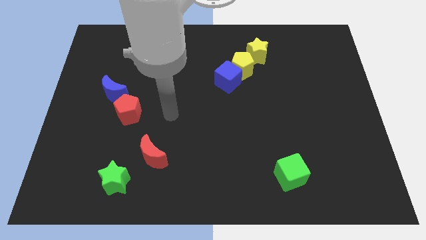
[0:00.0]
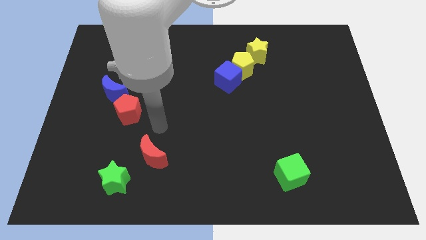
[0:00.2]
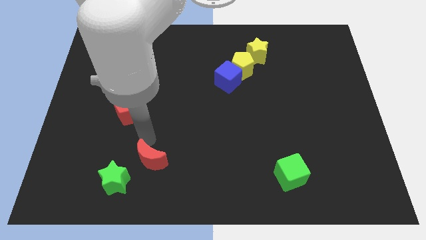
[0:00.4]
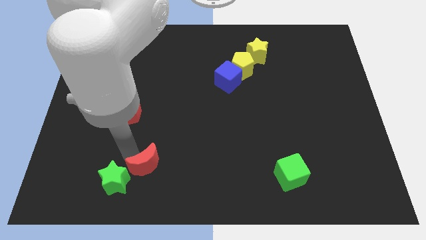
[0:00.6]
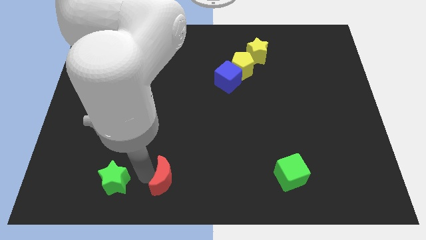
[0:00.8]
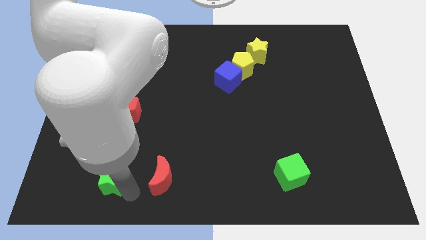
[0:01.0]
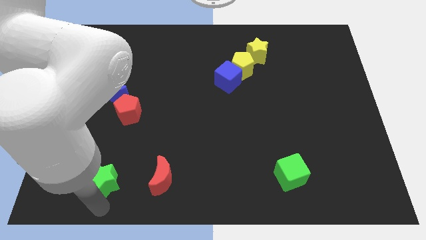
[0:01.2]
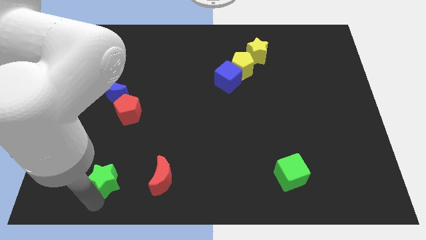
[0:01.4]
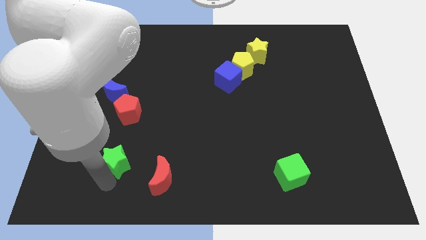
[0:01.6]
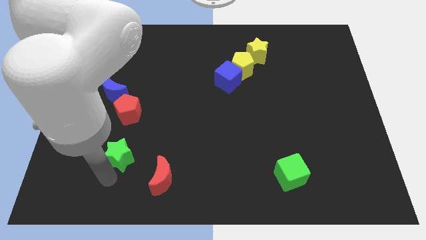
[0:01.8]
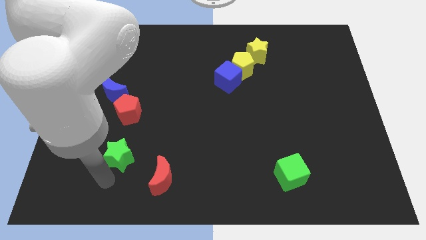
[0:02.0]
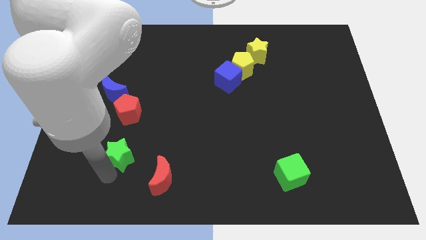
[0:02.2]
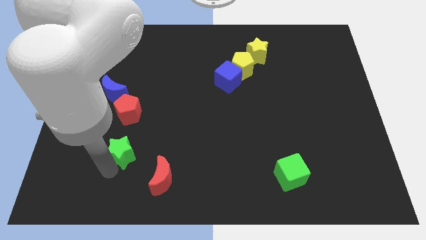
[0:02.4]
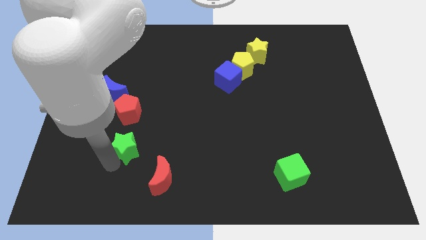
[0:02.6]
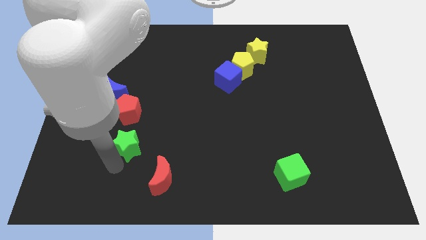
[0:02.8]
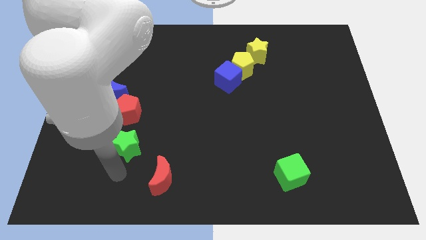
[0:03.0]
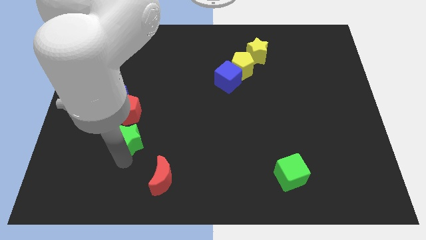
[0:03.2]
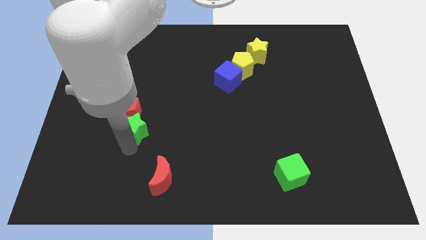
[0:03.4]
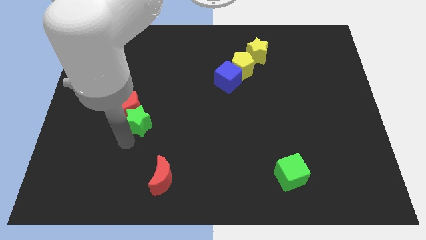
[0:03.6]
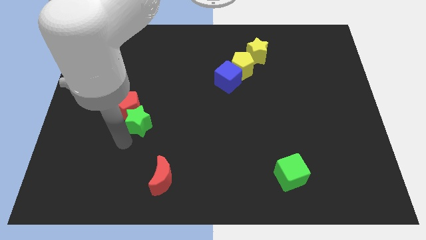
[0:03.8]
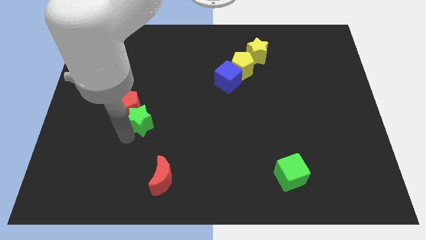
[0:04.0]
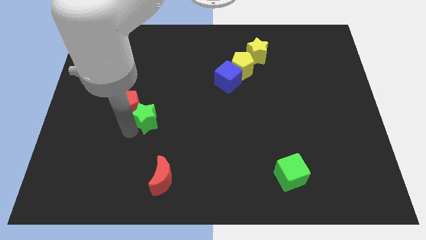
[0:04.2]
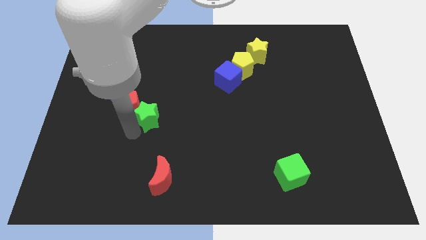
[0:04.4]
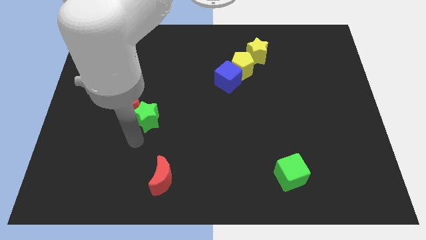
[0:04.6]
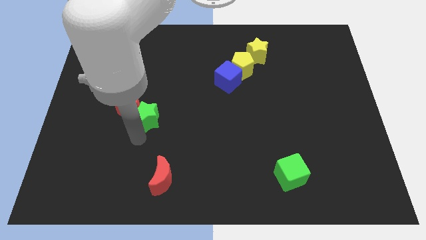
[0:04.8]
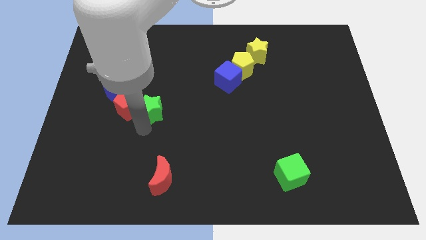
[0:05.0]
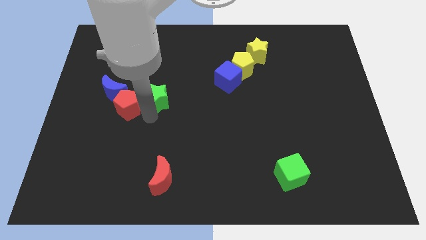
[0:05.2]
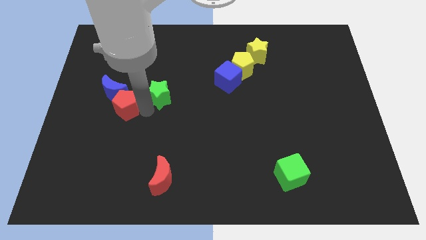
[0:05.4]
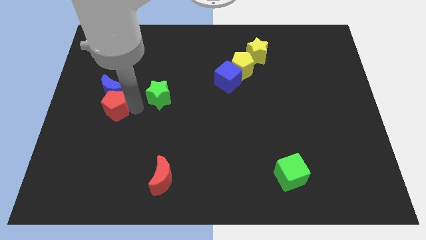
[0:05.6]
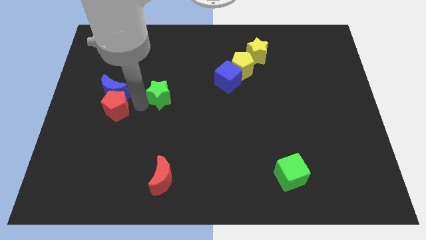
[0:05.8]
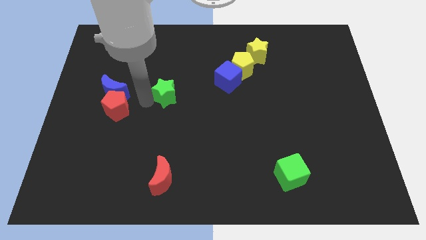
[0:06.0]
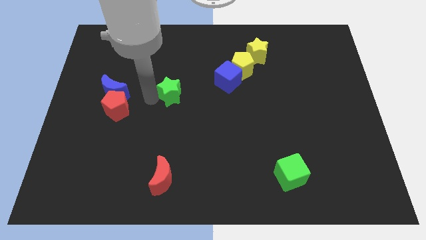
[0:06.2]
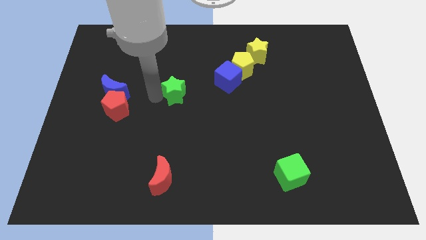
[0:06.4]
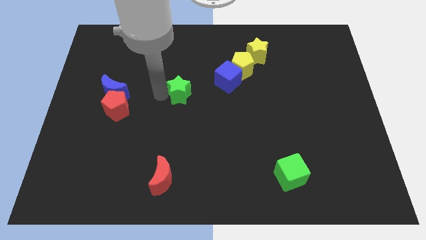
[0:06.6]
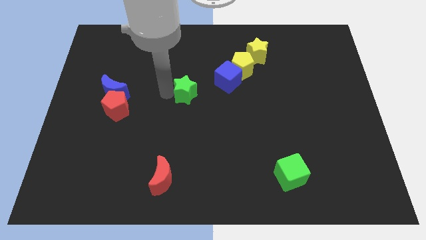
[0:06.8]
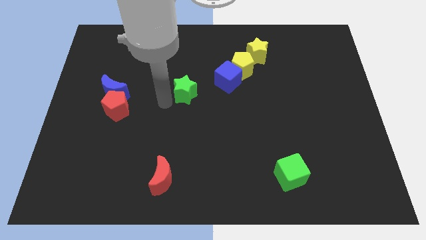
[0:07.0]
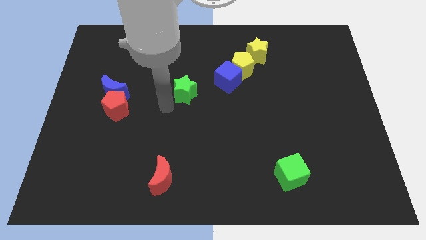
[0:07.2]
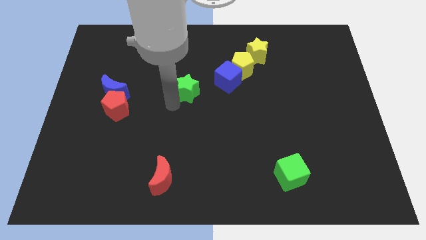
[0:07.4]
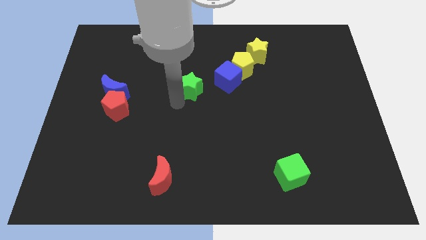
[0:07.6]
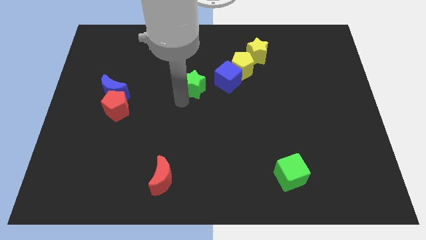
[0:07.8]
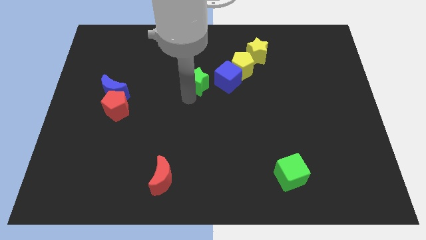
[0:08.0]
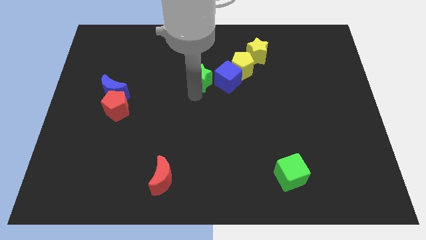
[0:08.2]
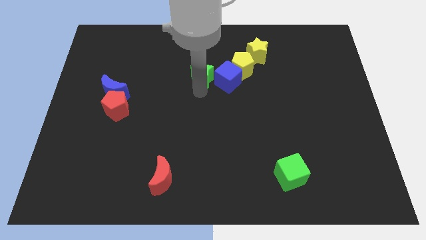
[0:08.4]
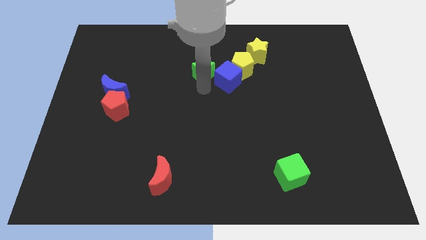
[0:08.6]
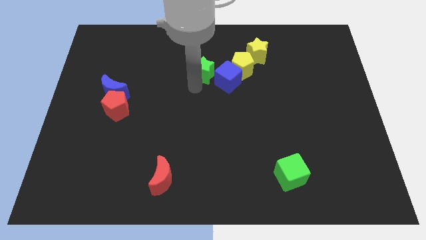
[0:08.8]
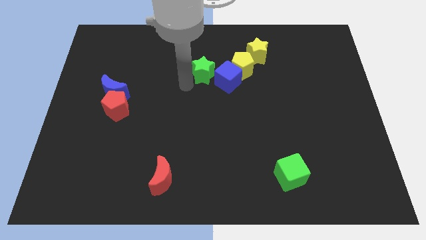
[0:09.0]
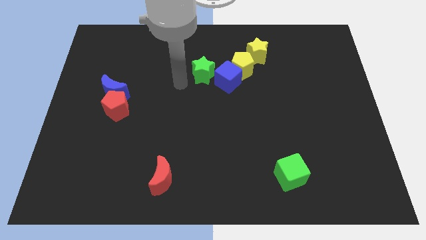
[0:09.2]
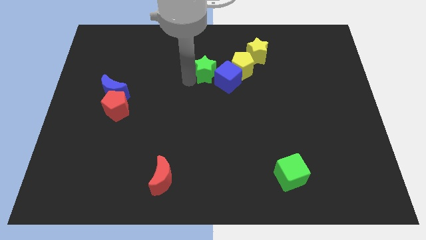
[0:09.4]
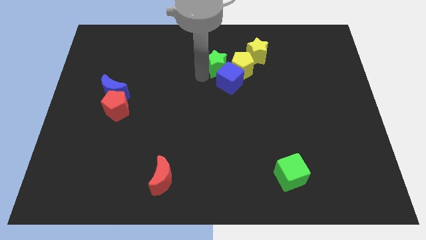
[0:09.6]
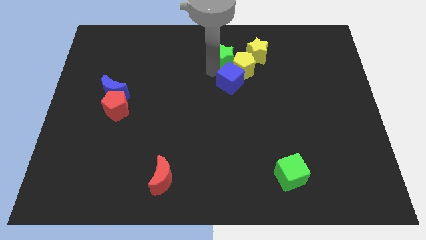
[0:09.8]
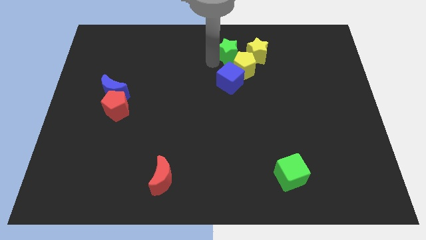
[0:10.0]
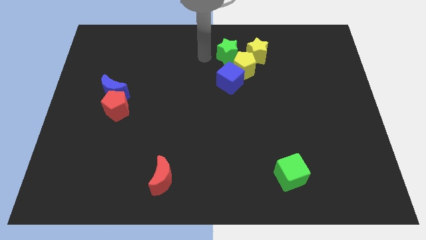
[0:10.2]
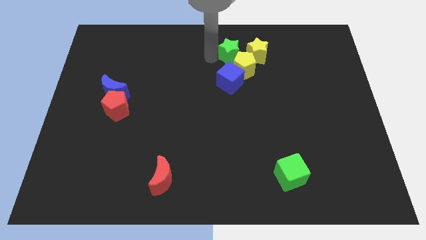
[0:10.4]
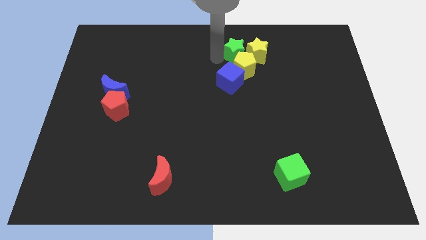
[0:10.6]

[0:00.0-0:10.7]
move the green star towards the yellow star

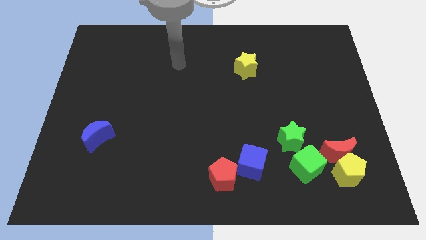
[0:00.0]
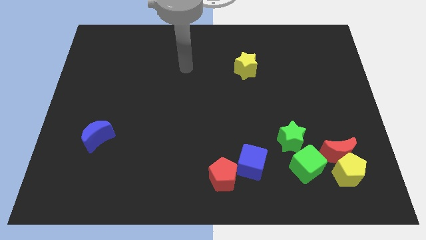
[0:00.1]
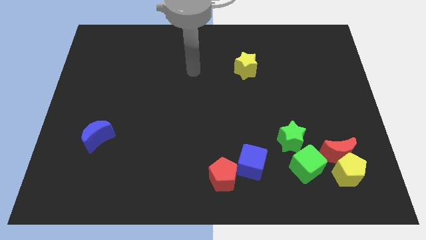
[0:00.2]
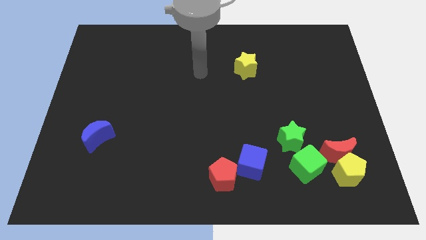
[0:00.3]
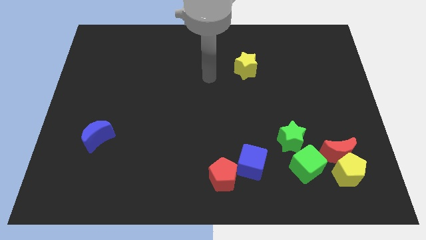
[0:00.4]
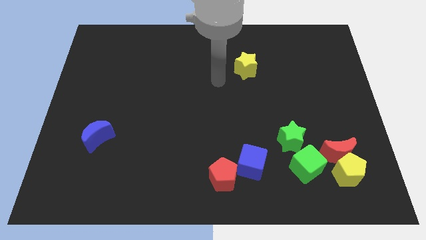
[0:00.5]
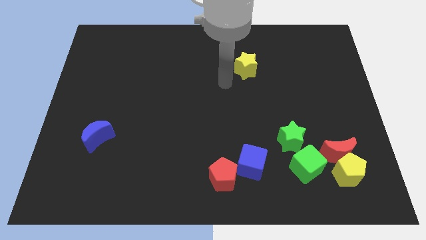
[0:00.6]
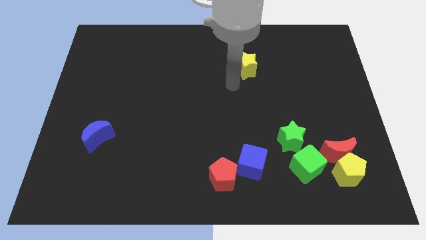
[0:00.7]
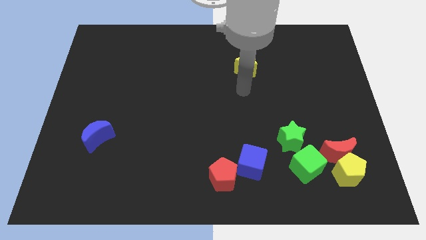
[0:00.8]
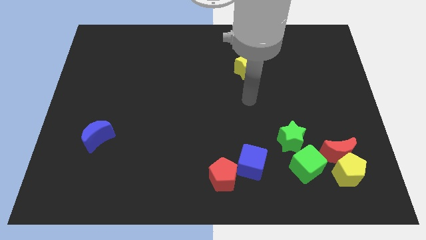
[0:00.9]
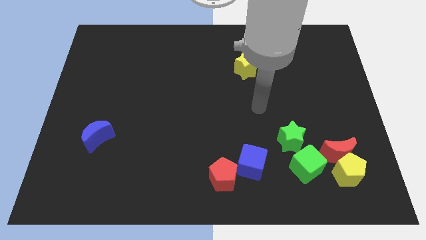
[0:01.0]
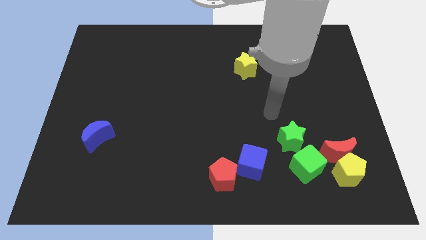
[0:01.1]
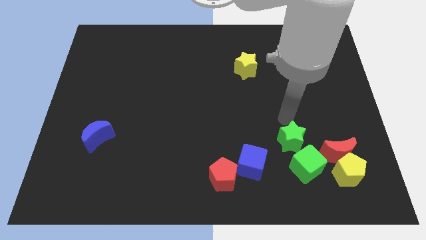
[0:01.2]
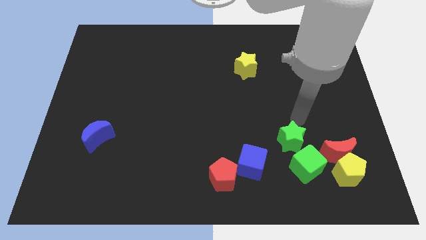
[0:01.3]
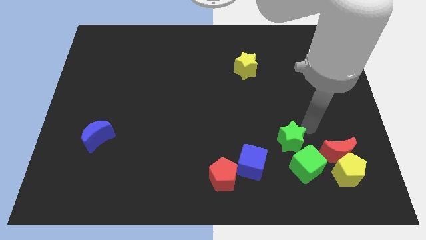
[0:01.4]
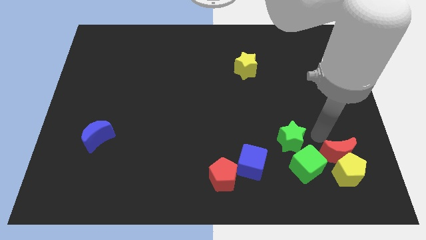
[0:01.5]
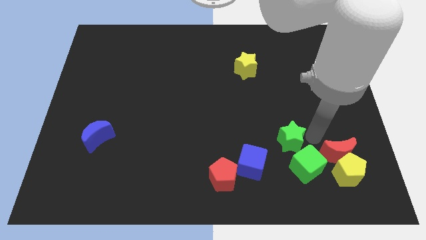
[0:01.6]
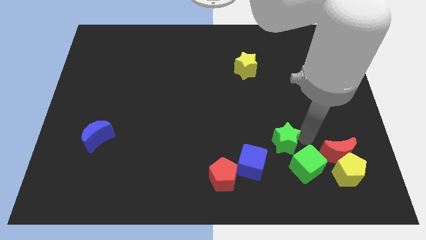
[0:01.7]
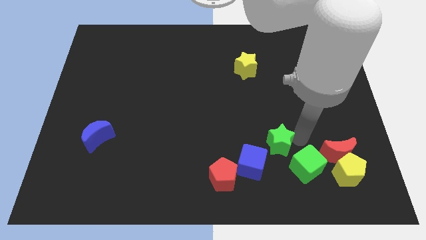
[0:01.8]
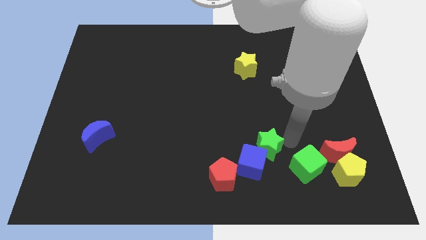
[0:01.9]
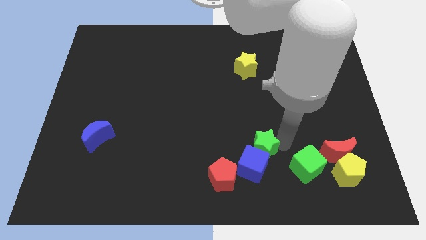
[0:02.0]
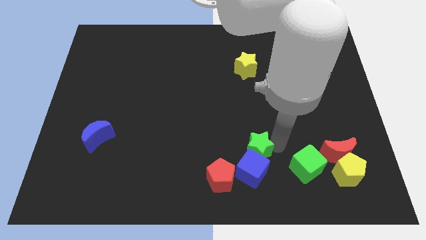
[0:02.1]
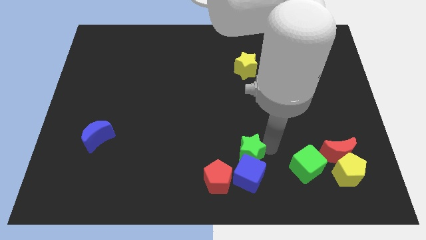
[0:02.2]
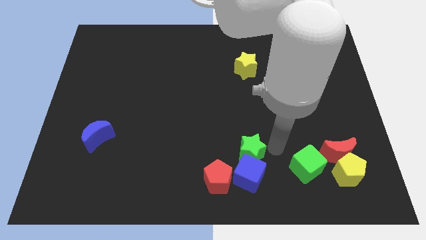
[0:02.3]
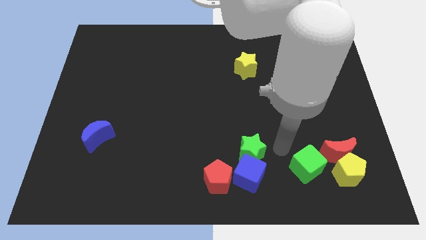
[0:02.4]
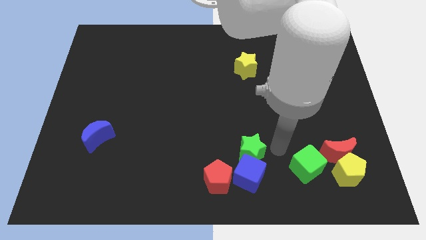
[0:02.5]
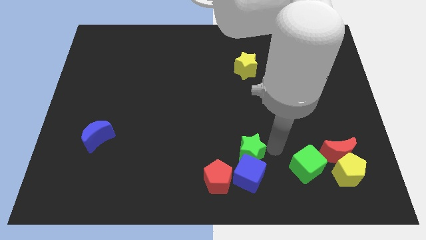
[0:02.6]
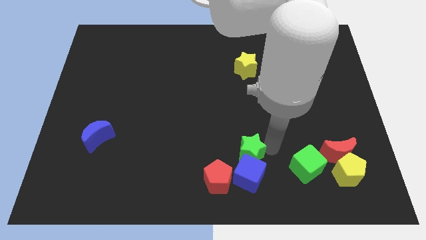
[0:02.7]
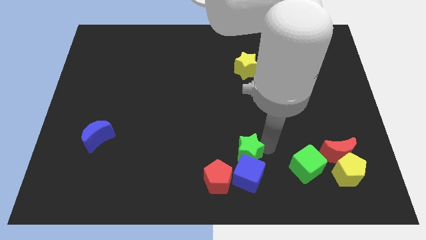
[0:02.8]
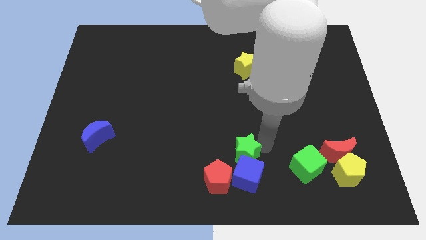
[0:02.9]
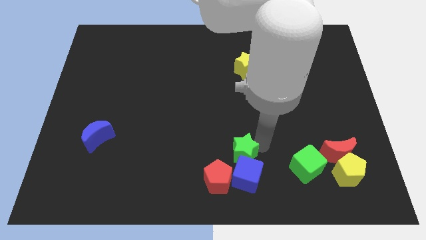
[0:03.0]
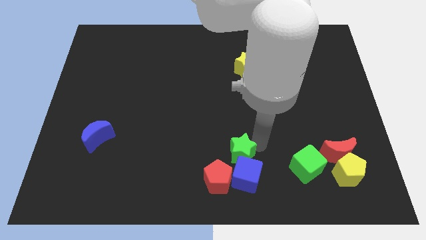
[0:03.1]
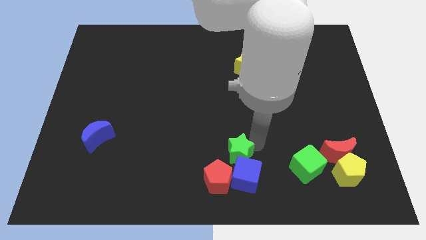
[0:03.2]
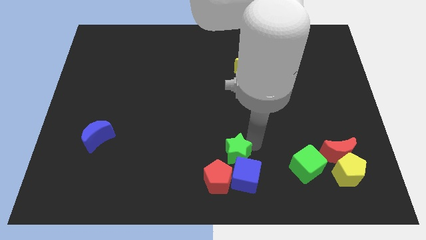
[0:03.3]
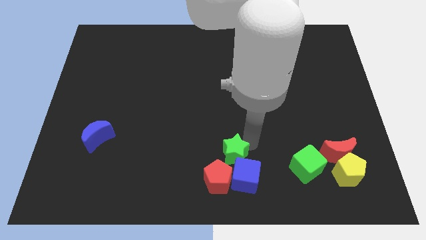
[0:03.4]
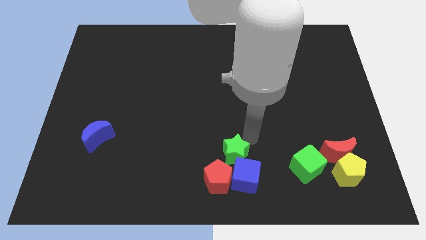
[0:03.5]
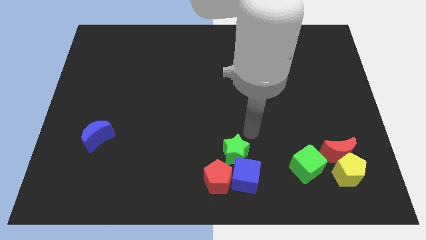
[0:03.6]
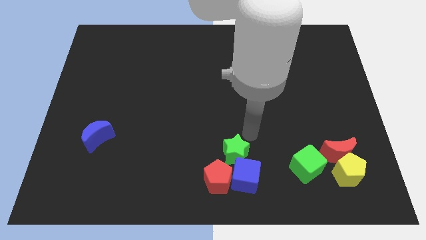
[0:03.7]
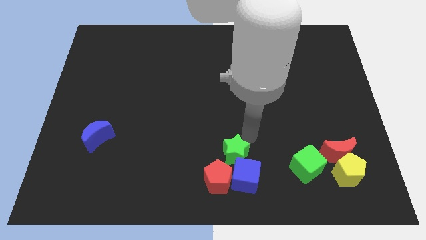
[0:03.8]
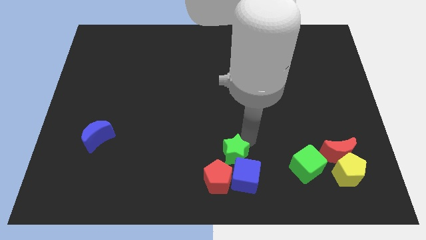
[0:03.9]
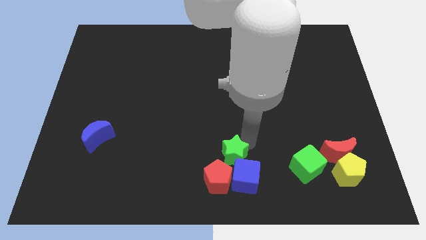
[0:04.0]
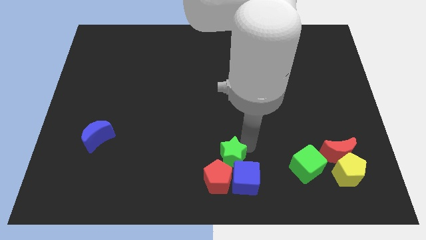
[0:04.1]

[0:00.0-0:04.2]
push the green star to the red pentagon
